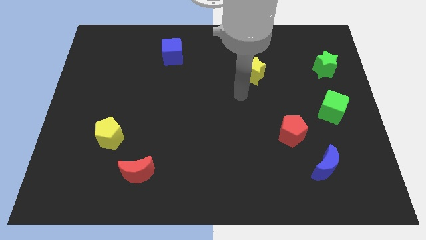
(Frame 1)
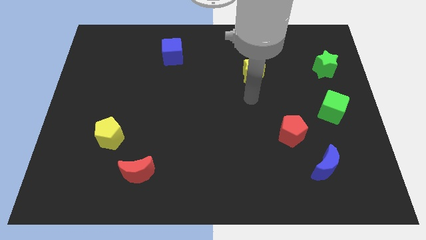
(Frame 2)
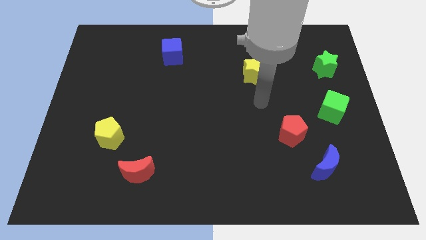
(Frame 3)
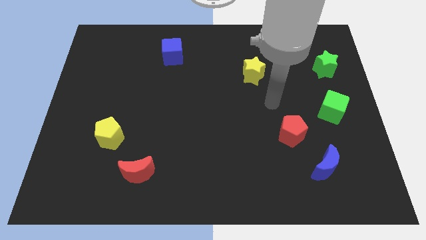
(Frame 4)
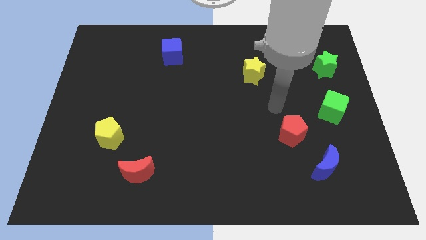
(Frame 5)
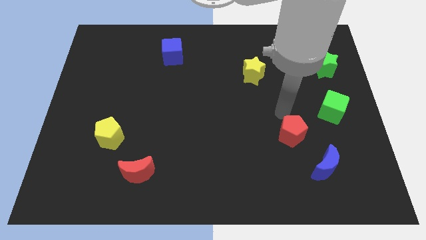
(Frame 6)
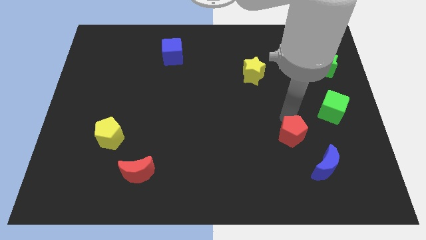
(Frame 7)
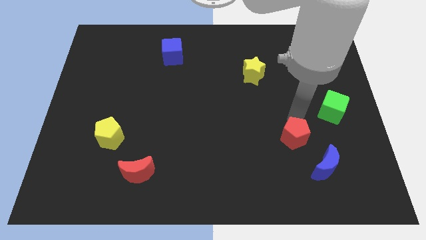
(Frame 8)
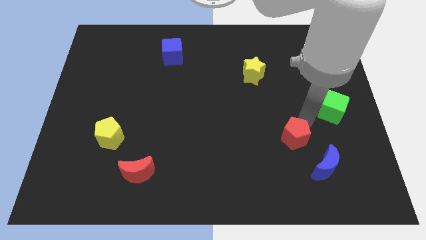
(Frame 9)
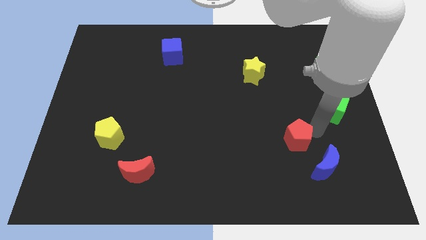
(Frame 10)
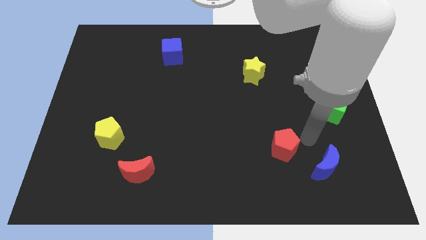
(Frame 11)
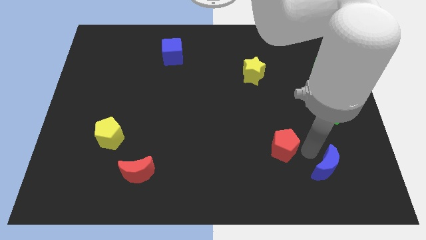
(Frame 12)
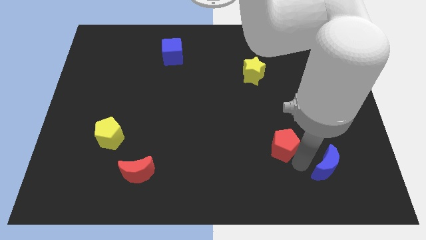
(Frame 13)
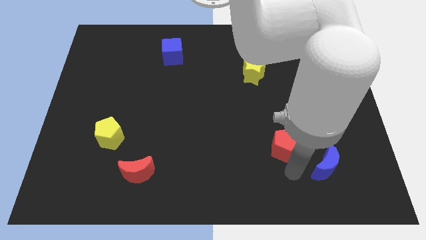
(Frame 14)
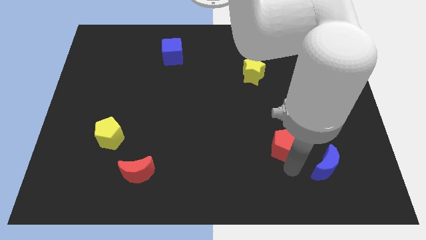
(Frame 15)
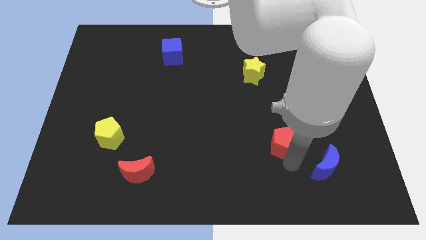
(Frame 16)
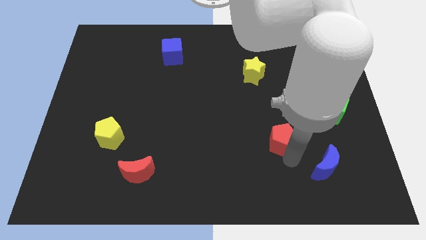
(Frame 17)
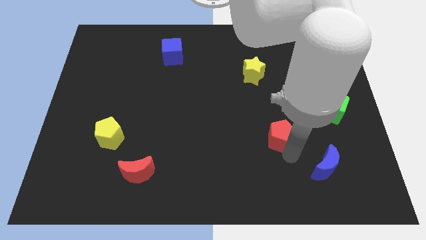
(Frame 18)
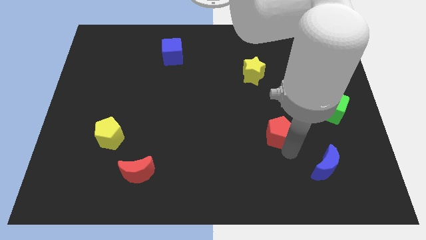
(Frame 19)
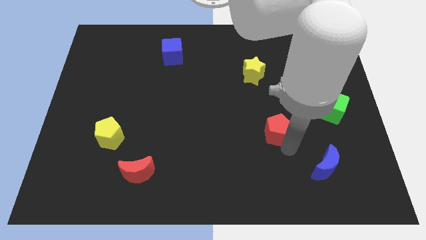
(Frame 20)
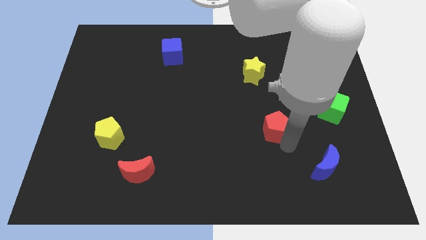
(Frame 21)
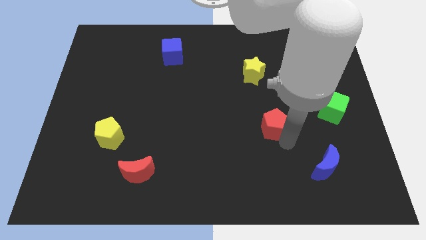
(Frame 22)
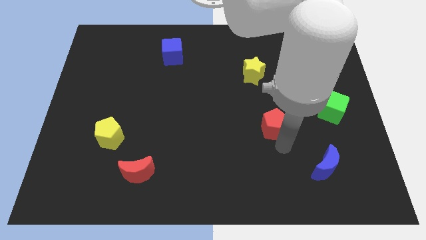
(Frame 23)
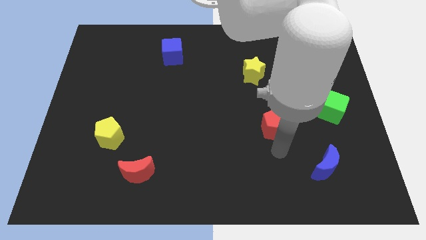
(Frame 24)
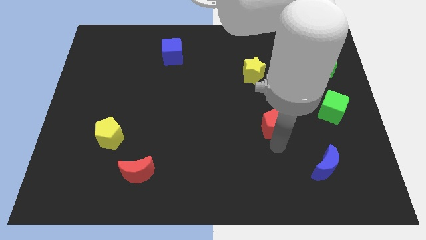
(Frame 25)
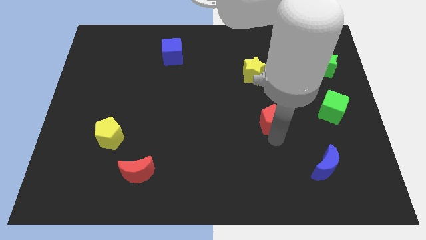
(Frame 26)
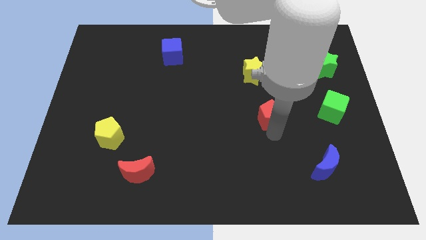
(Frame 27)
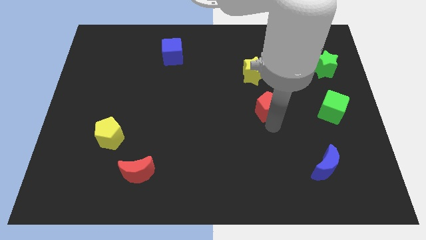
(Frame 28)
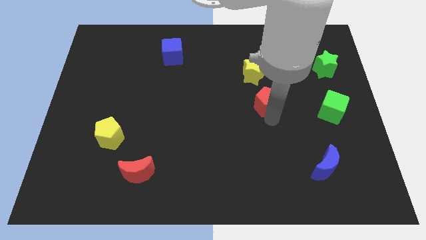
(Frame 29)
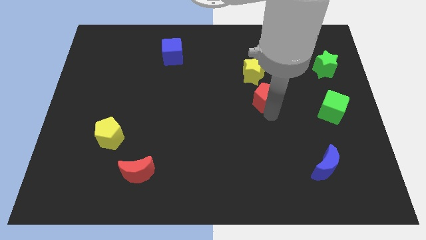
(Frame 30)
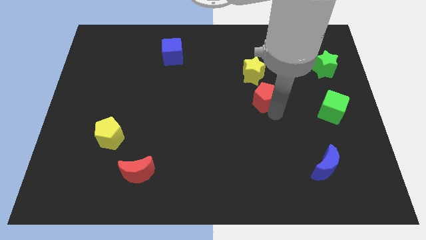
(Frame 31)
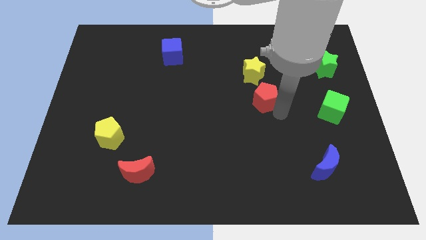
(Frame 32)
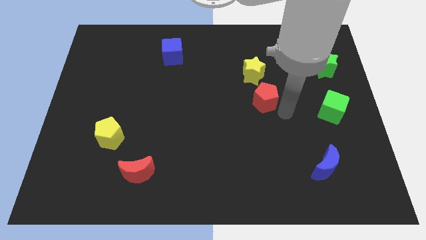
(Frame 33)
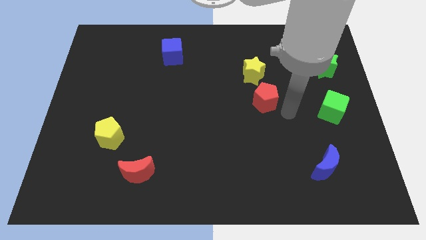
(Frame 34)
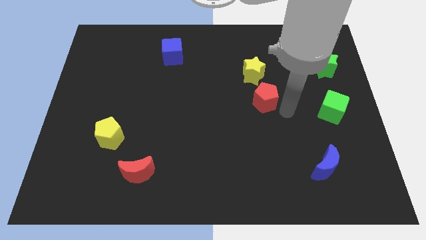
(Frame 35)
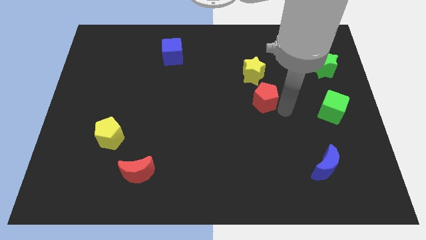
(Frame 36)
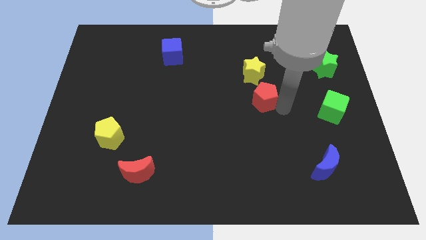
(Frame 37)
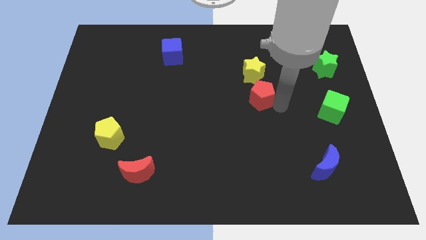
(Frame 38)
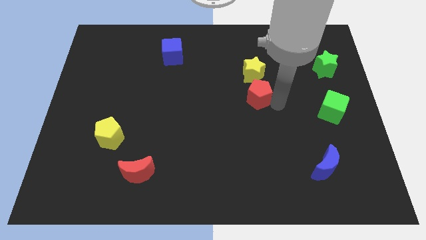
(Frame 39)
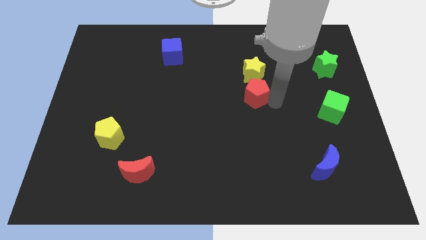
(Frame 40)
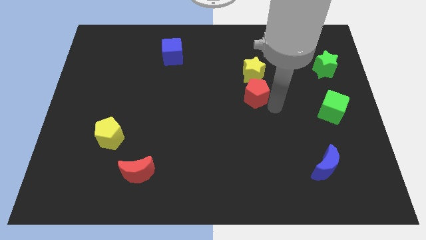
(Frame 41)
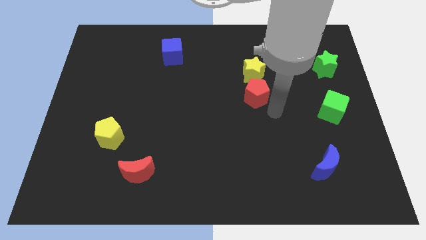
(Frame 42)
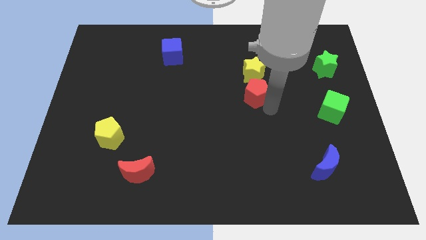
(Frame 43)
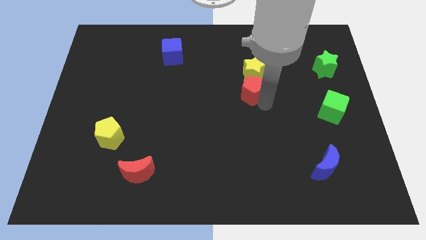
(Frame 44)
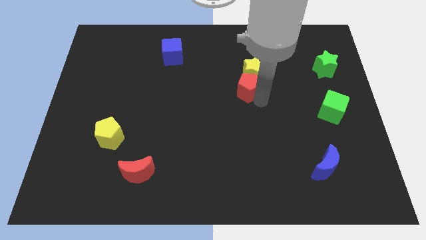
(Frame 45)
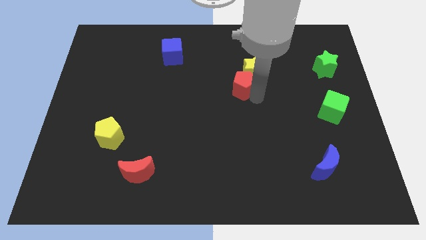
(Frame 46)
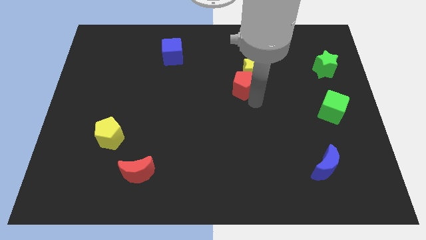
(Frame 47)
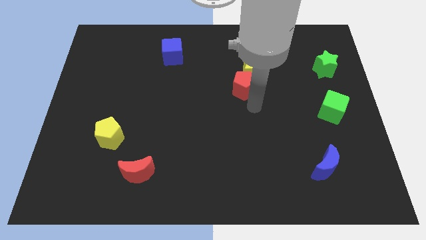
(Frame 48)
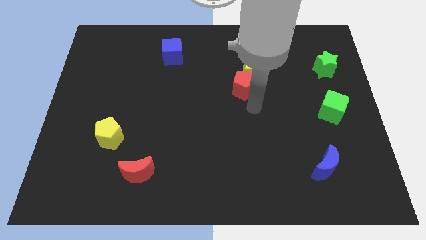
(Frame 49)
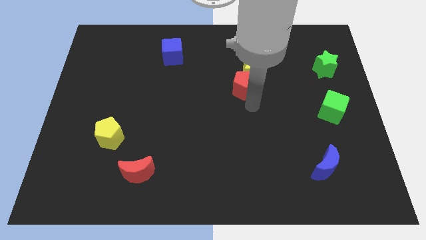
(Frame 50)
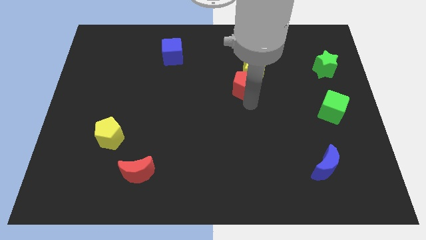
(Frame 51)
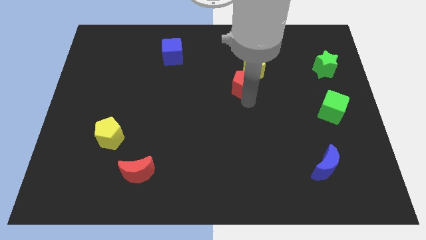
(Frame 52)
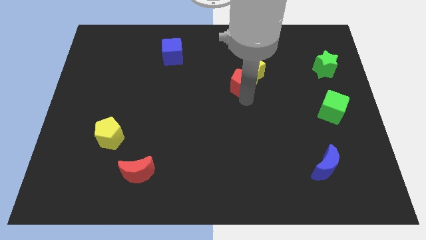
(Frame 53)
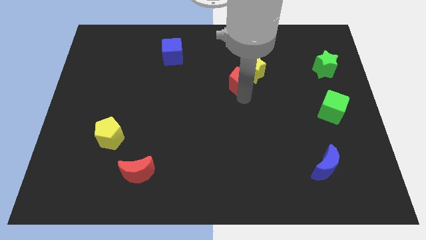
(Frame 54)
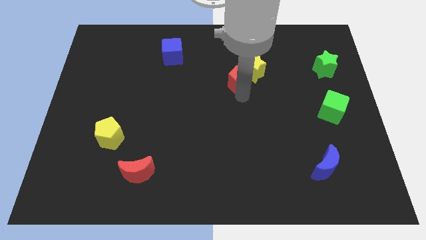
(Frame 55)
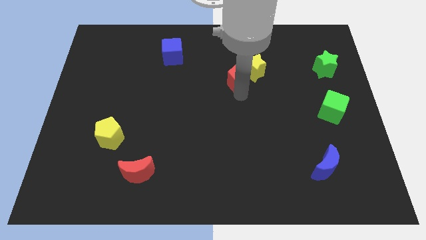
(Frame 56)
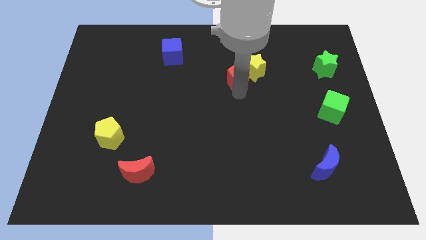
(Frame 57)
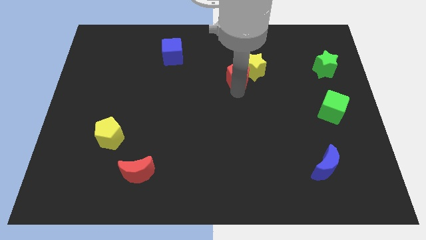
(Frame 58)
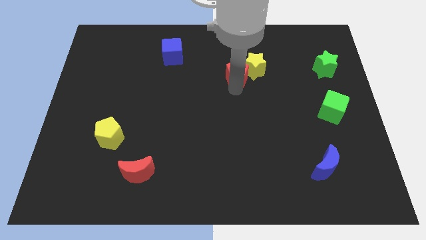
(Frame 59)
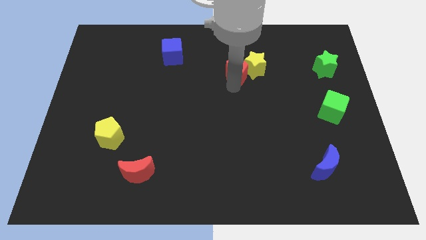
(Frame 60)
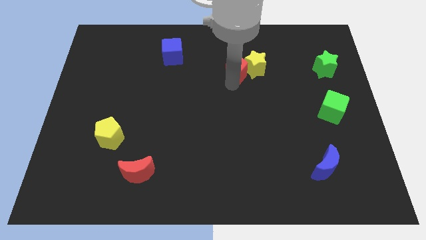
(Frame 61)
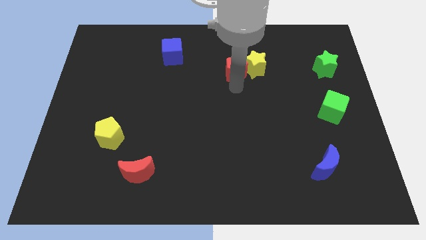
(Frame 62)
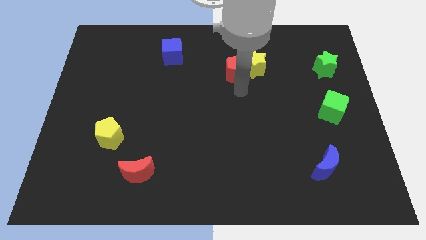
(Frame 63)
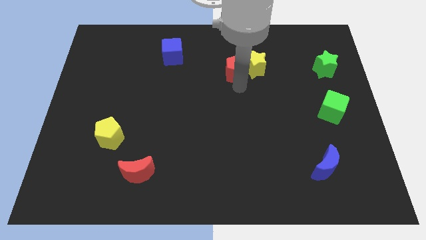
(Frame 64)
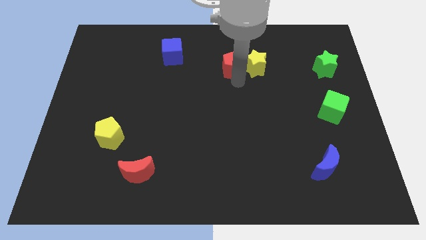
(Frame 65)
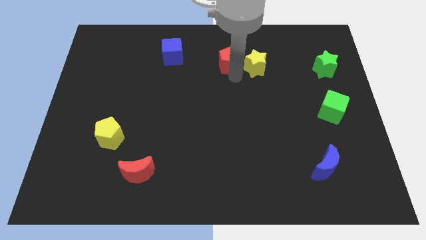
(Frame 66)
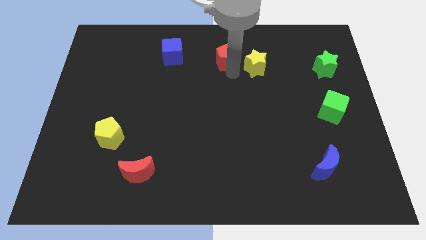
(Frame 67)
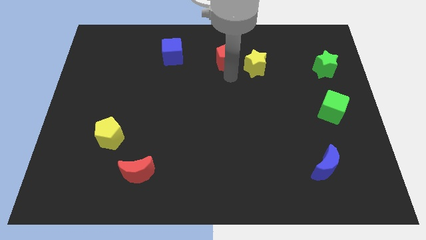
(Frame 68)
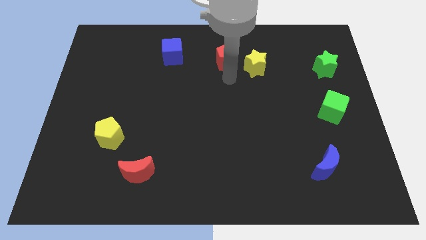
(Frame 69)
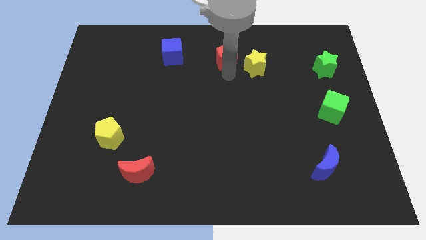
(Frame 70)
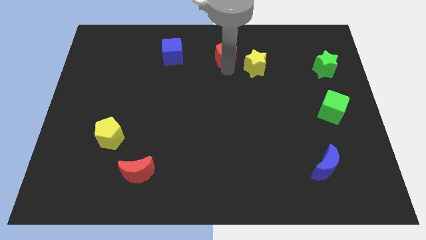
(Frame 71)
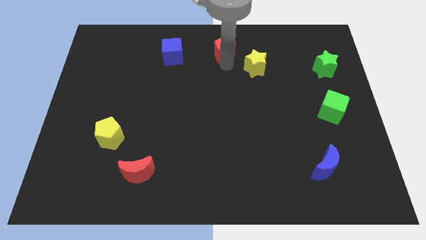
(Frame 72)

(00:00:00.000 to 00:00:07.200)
put the red pentagon to the top side
